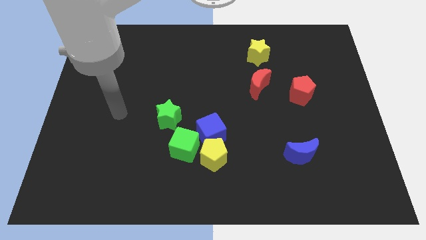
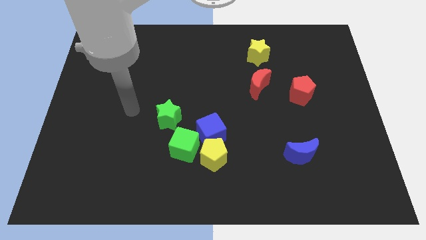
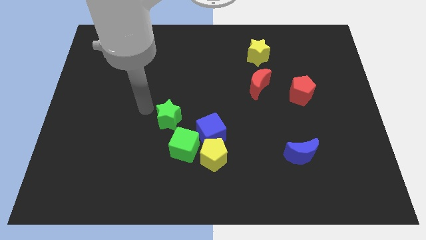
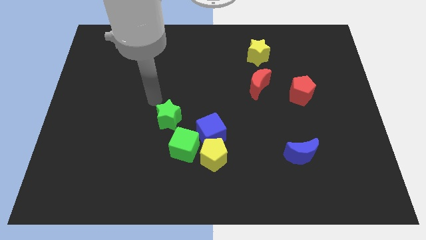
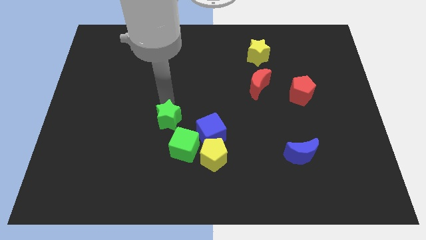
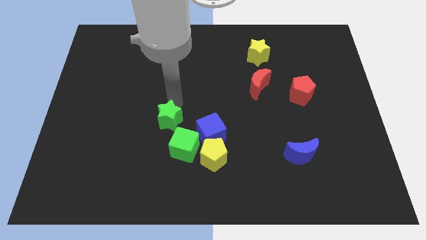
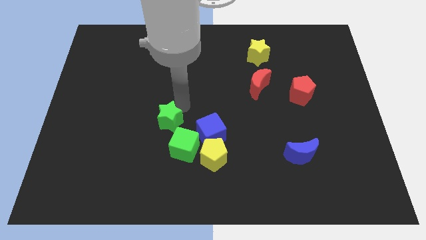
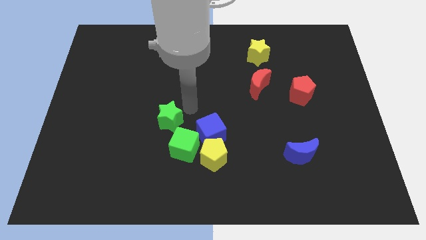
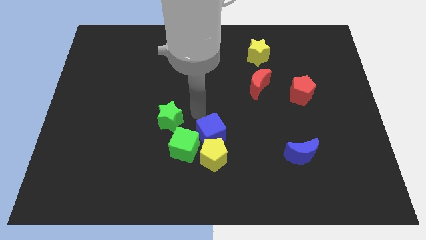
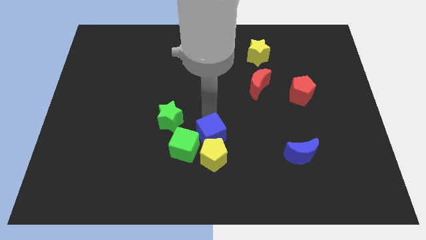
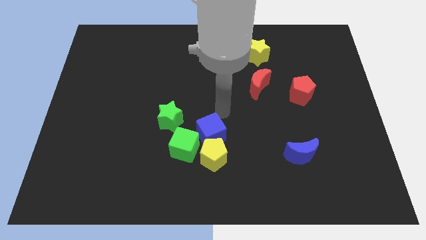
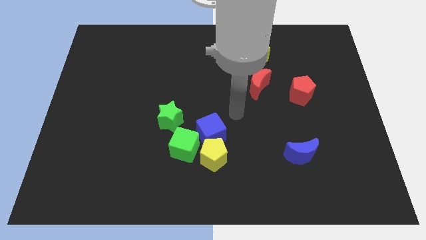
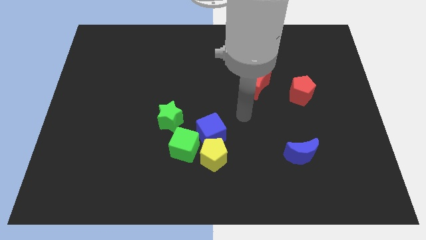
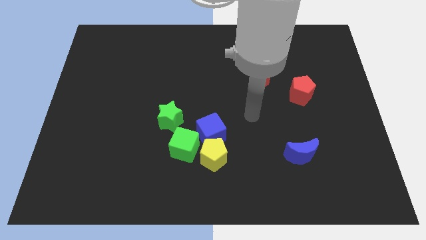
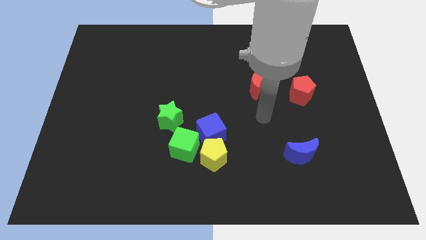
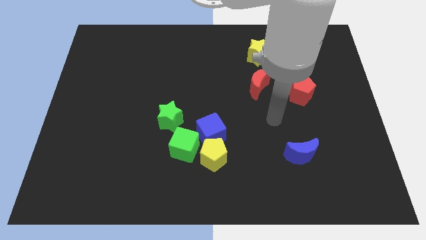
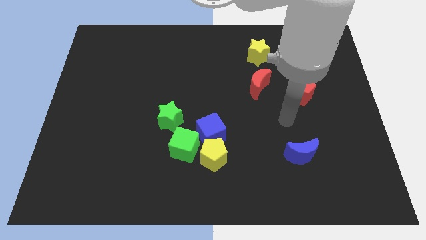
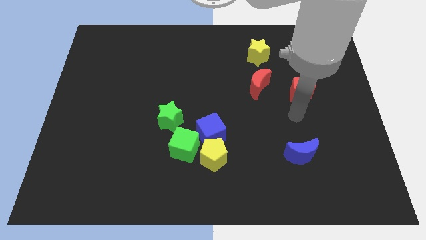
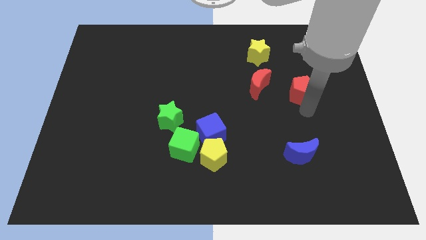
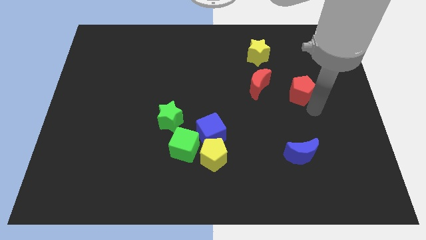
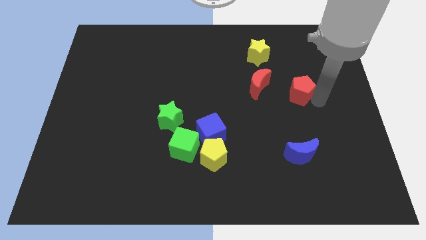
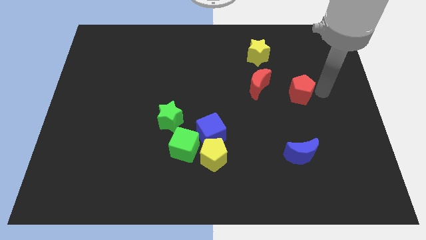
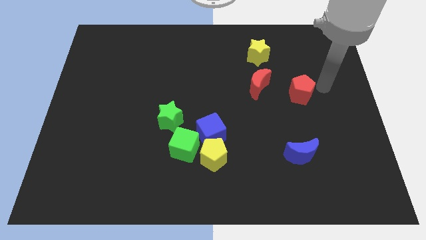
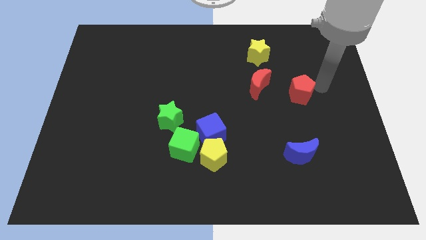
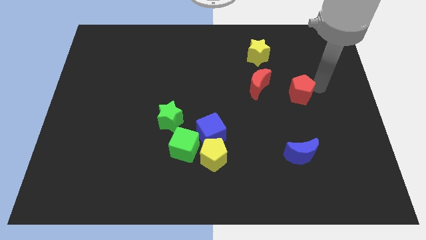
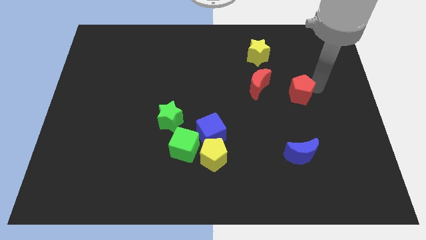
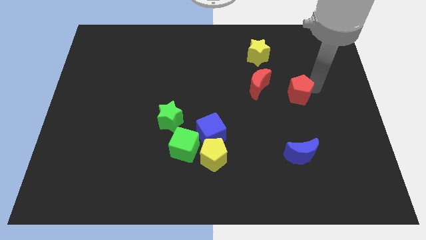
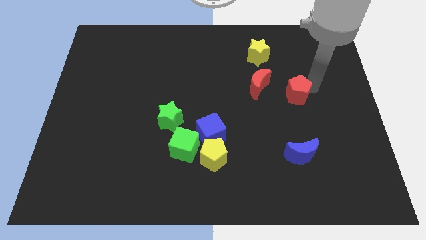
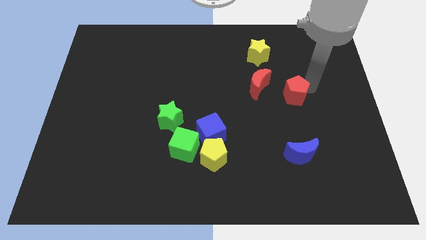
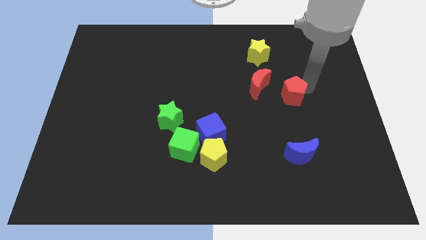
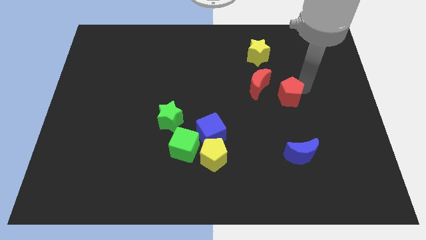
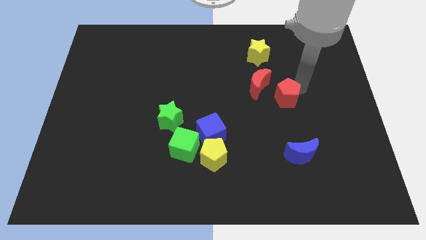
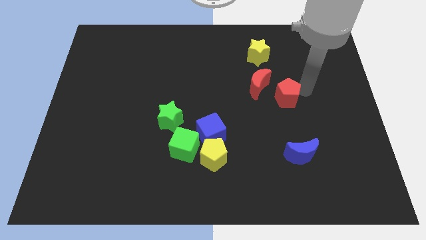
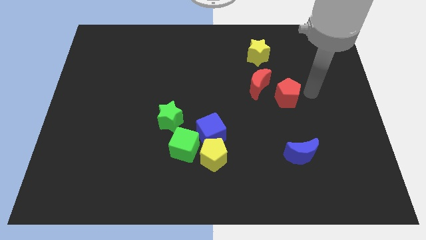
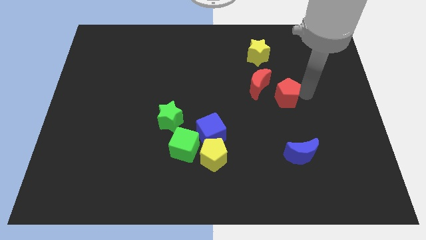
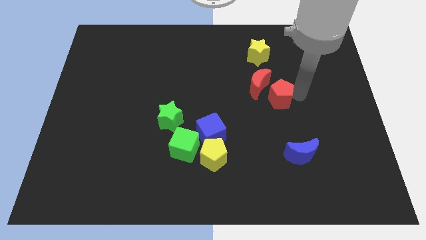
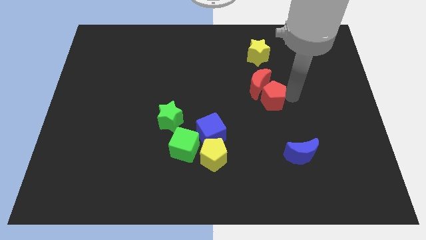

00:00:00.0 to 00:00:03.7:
move the red pentagon somewhat left

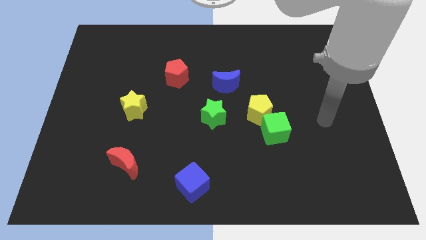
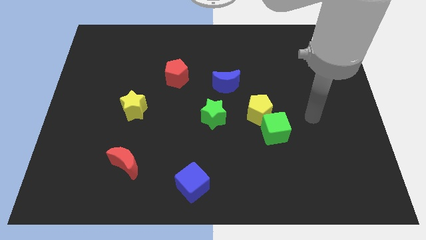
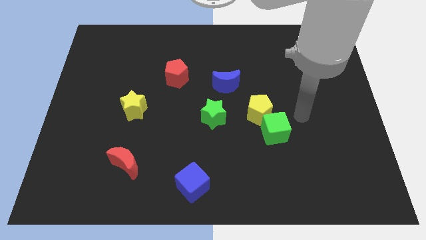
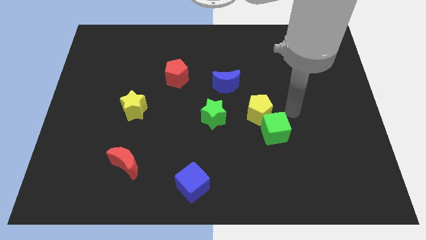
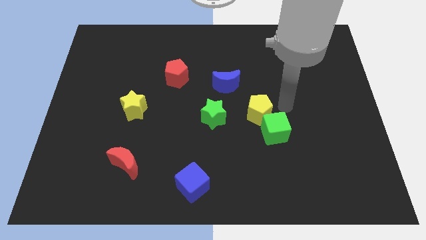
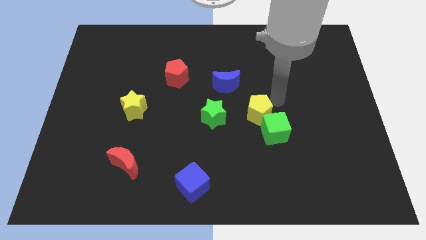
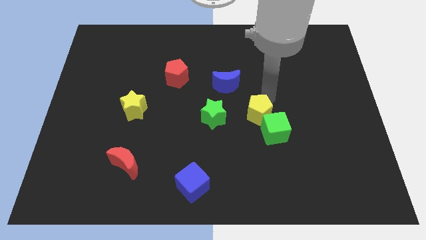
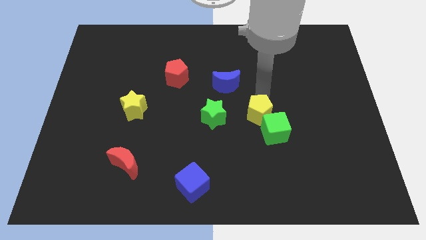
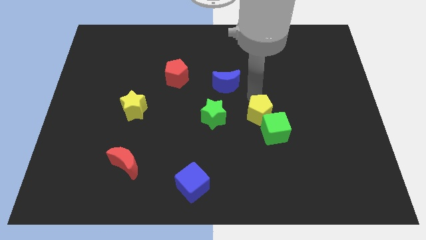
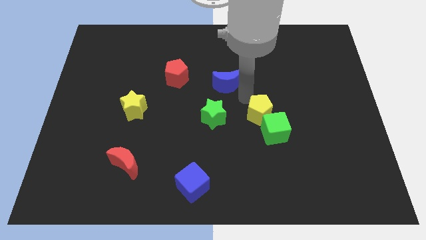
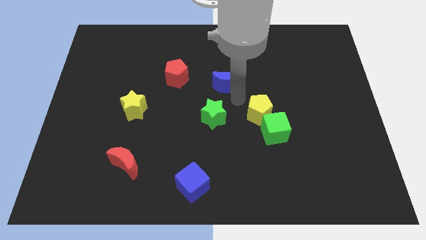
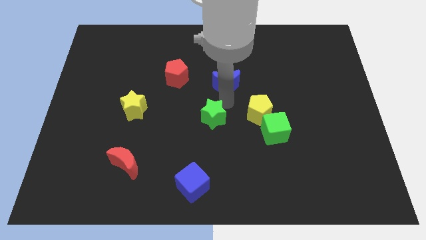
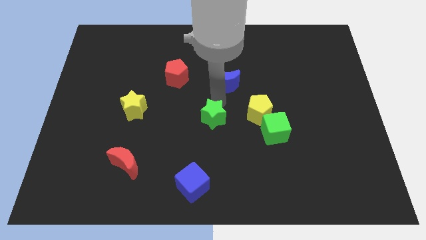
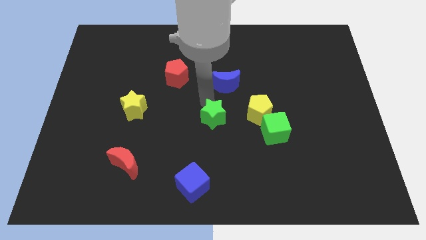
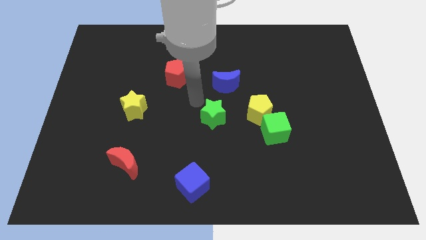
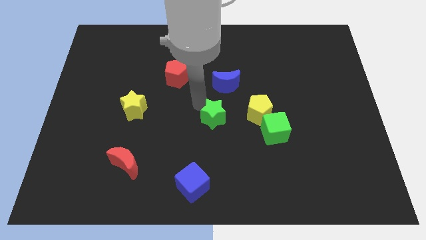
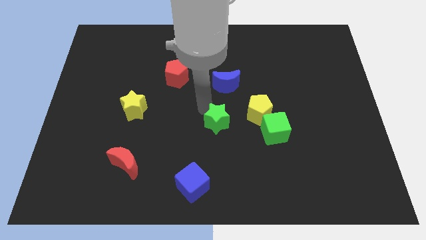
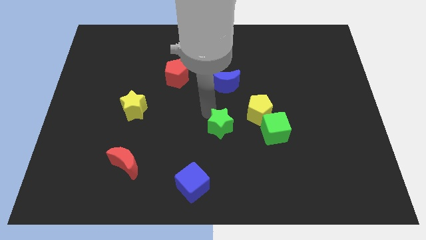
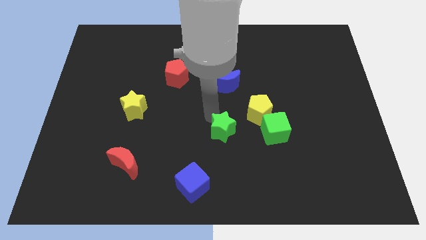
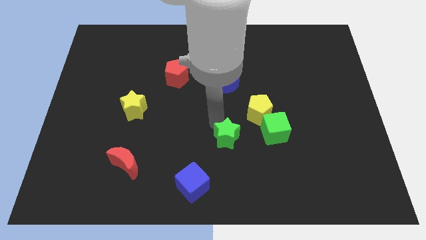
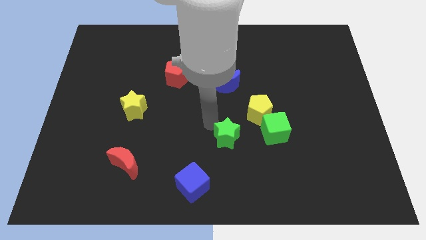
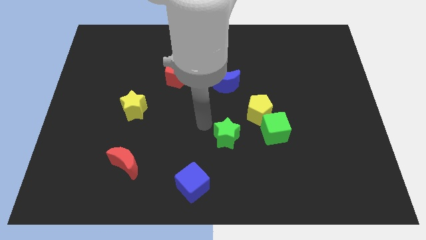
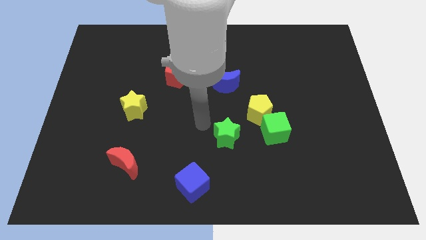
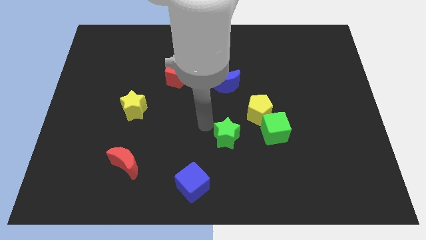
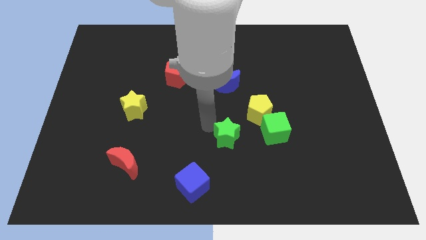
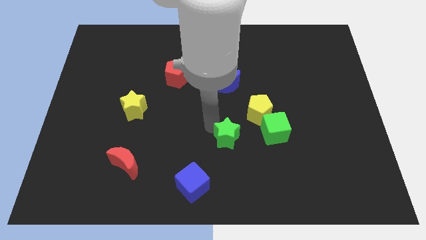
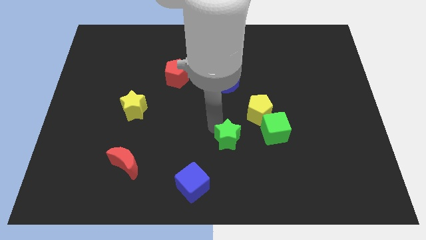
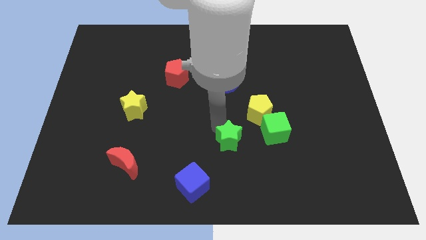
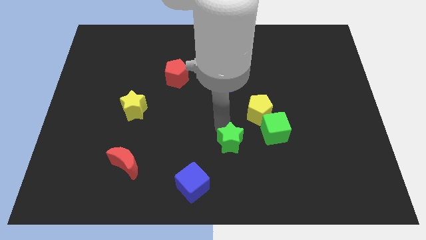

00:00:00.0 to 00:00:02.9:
slide the green star a little bit down and to the right

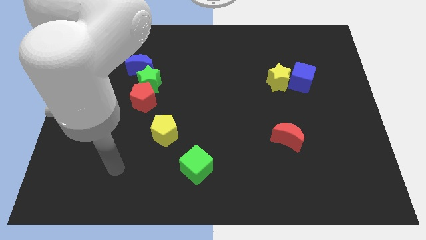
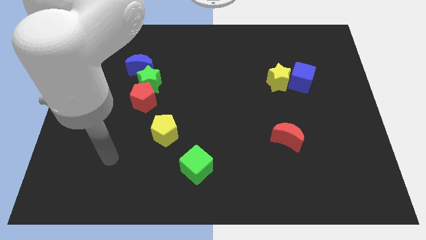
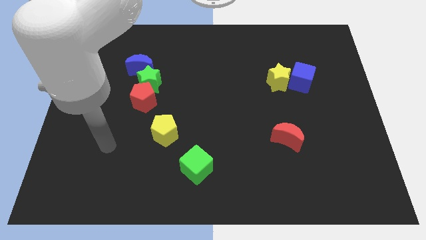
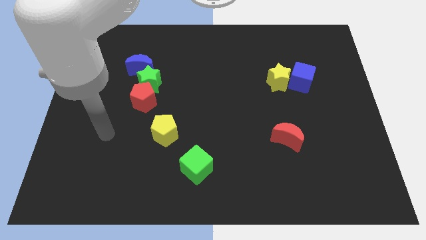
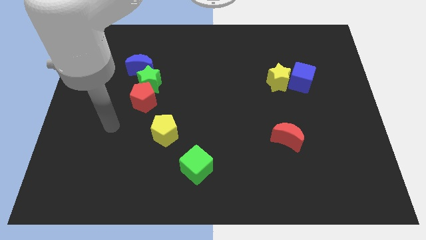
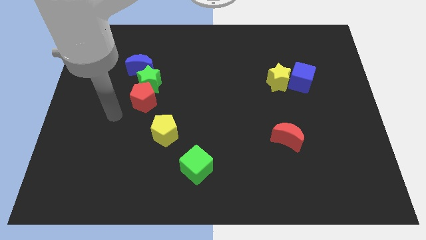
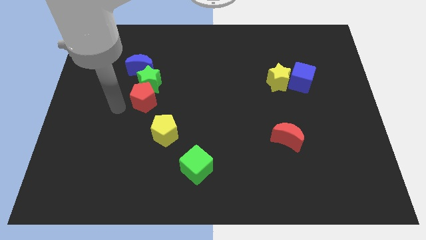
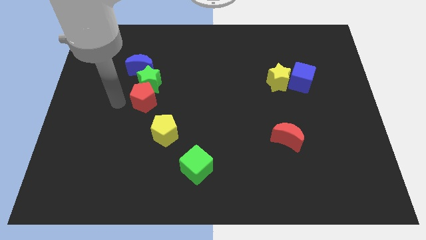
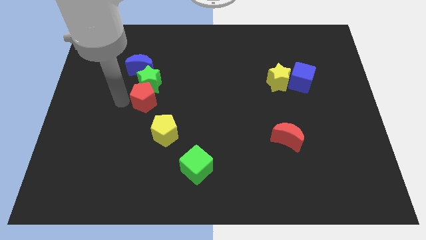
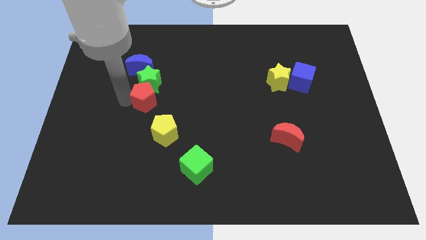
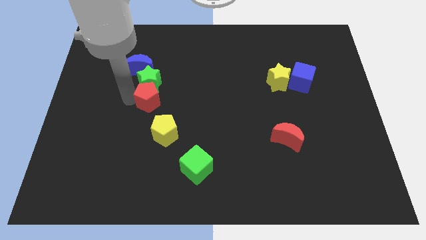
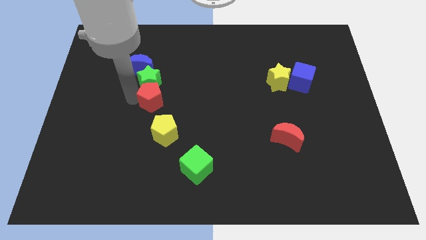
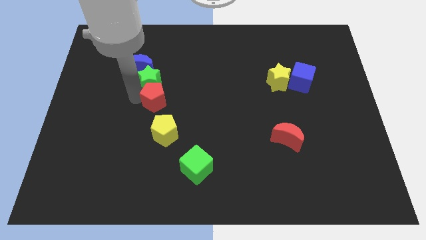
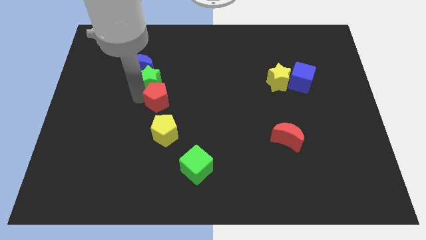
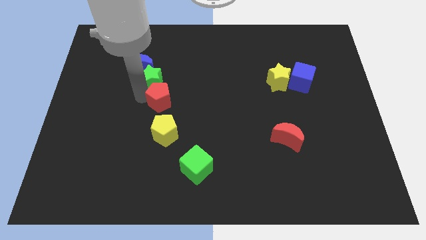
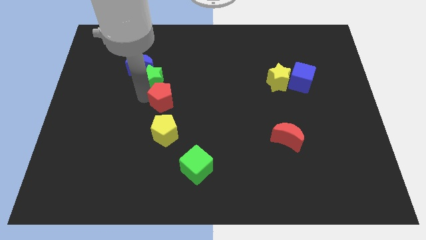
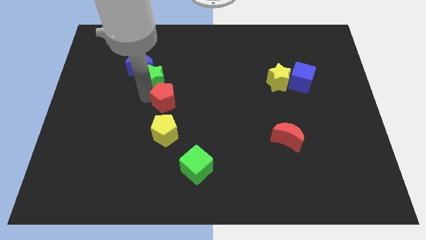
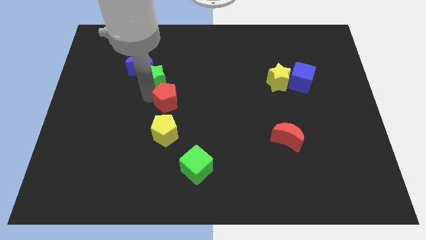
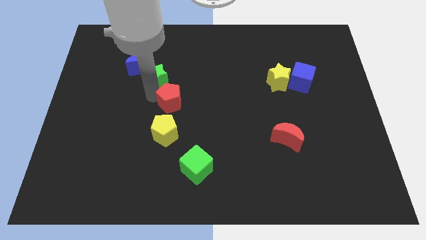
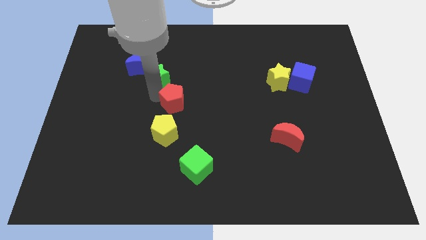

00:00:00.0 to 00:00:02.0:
slightly move the red pentagon right
